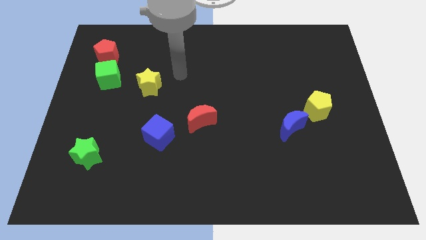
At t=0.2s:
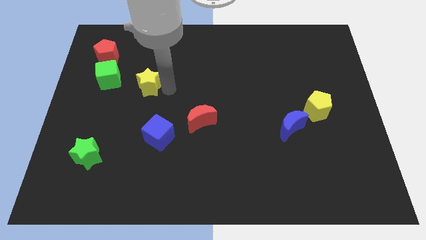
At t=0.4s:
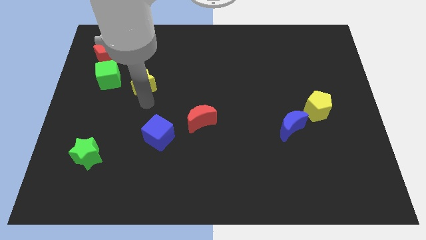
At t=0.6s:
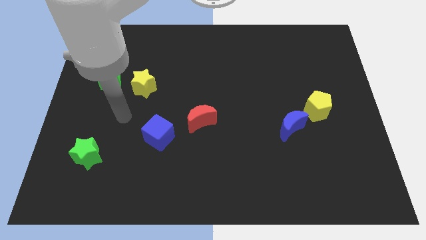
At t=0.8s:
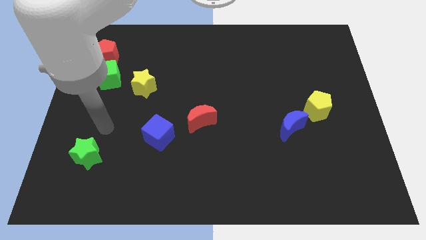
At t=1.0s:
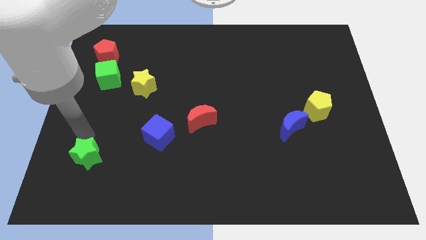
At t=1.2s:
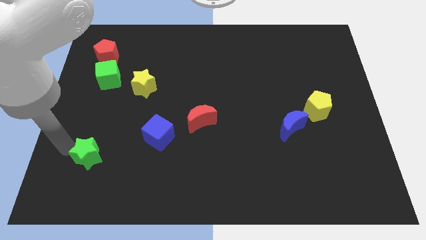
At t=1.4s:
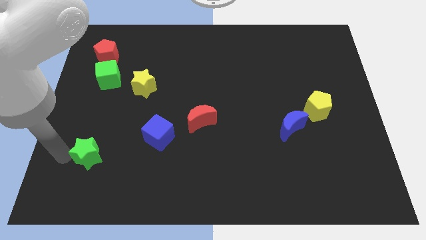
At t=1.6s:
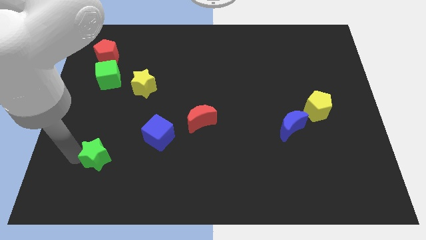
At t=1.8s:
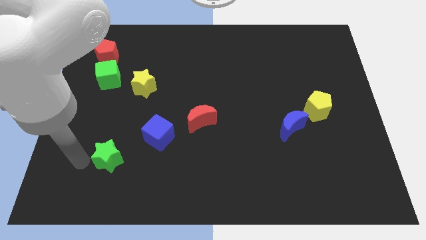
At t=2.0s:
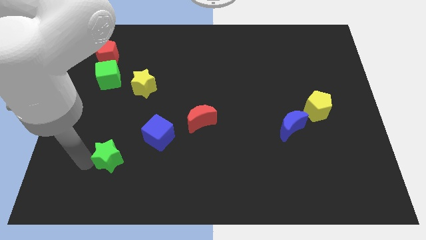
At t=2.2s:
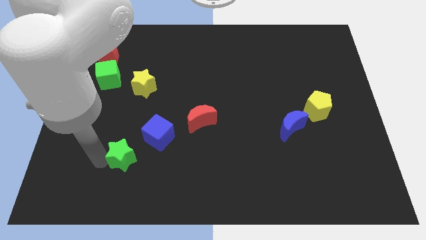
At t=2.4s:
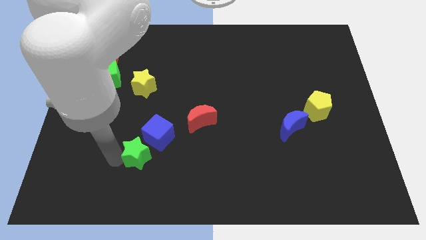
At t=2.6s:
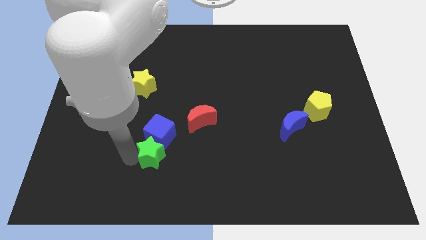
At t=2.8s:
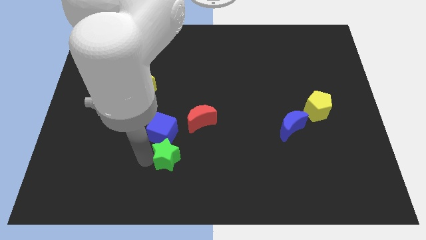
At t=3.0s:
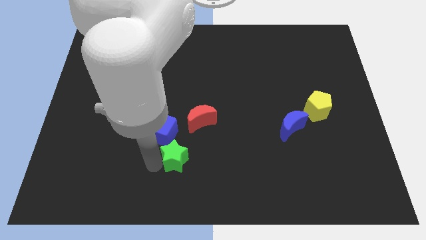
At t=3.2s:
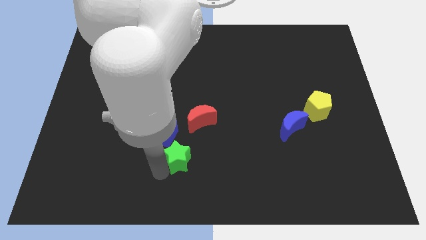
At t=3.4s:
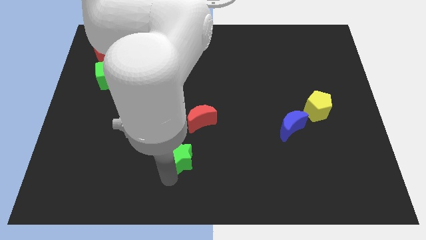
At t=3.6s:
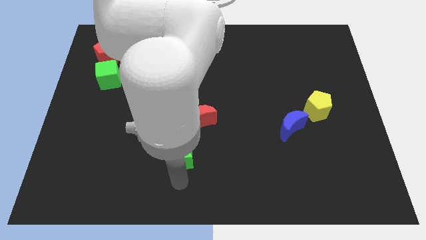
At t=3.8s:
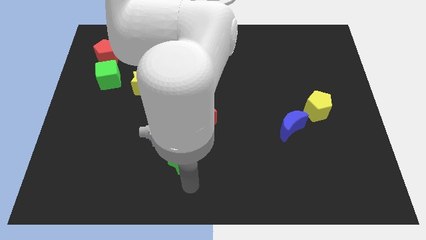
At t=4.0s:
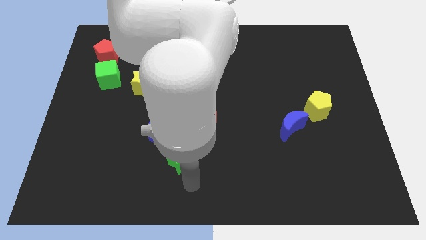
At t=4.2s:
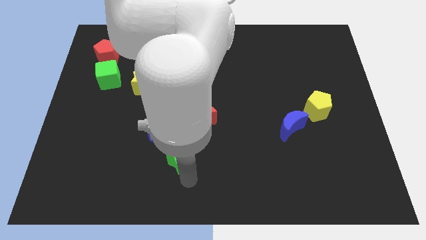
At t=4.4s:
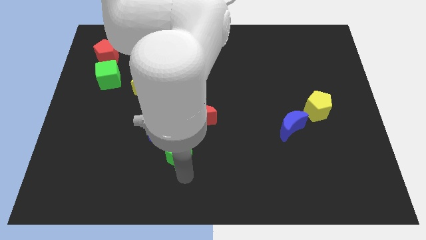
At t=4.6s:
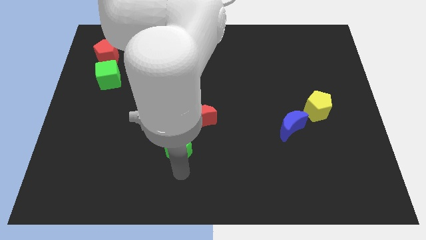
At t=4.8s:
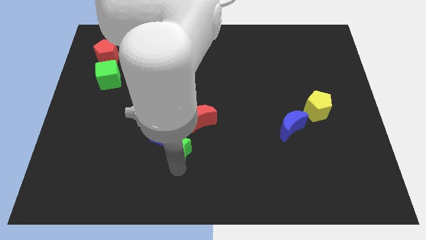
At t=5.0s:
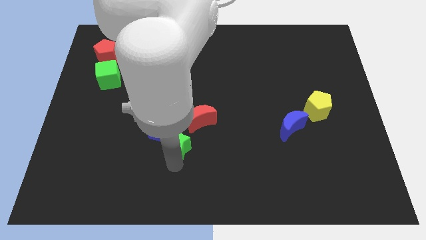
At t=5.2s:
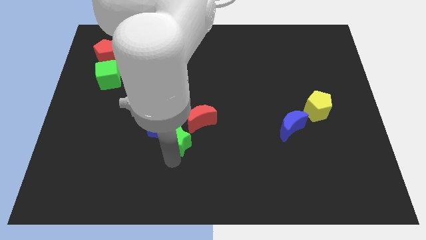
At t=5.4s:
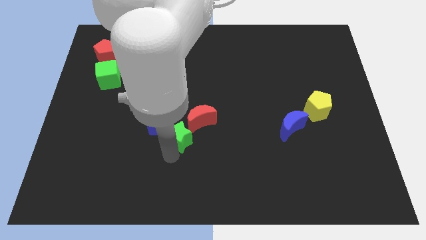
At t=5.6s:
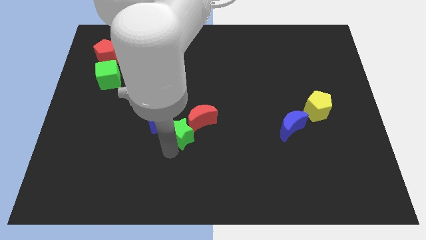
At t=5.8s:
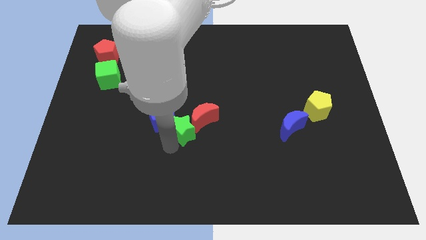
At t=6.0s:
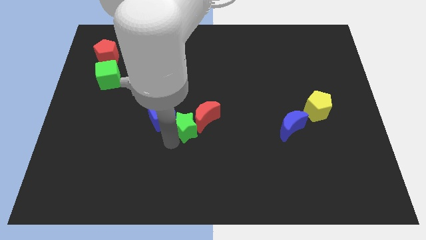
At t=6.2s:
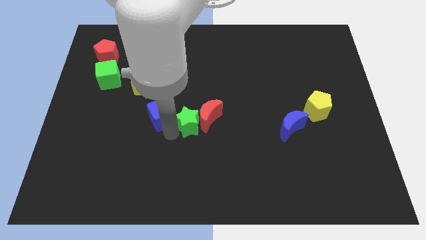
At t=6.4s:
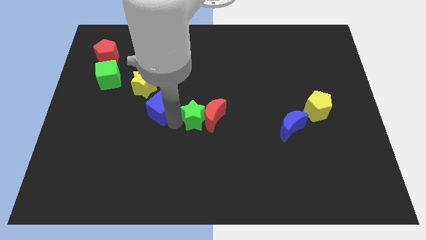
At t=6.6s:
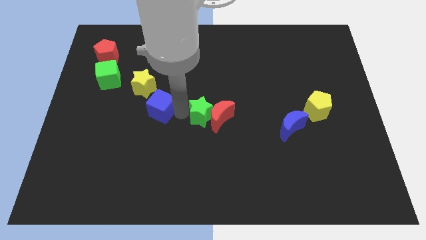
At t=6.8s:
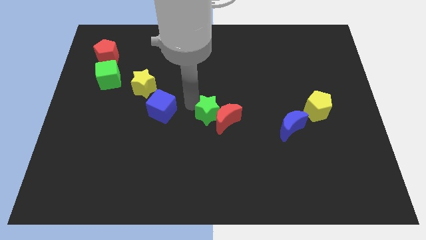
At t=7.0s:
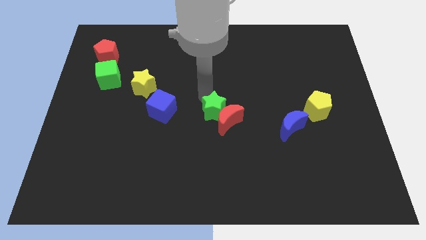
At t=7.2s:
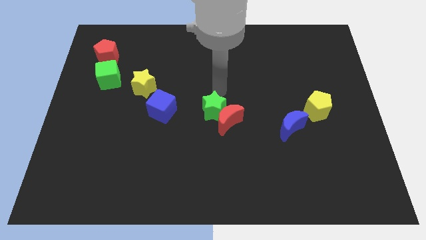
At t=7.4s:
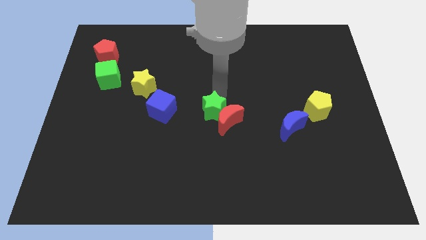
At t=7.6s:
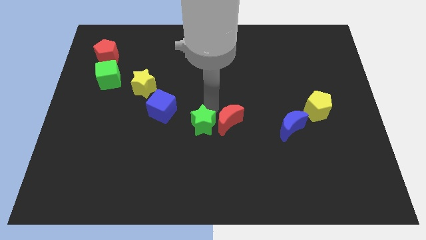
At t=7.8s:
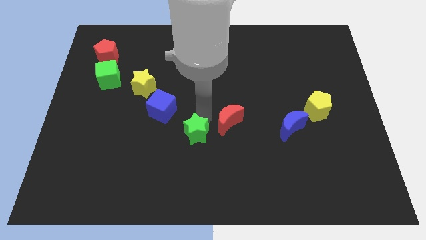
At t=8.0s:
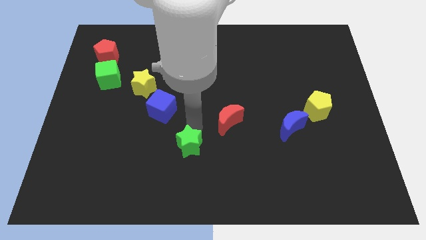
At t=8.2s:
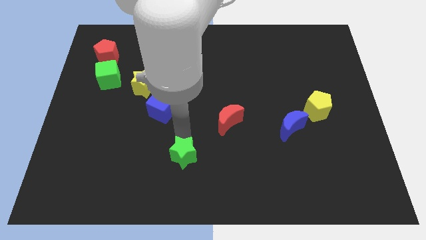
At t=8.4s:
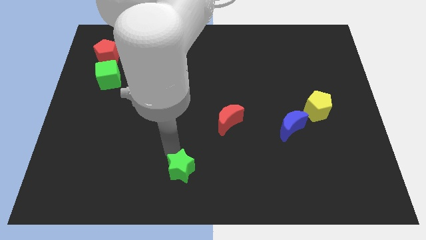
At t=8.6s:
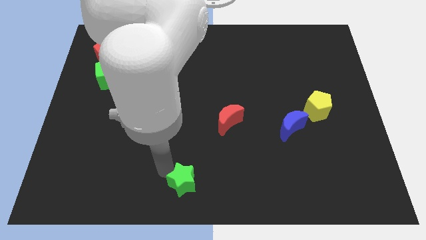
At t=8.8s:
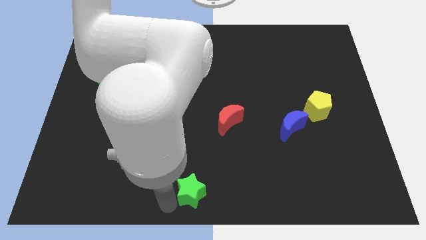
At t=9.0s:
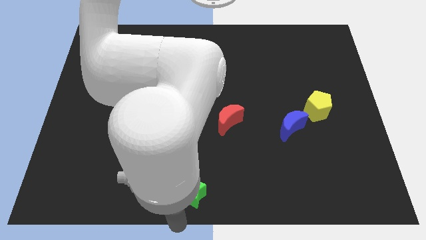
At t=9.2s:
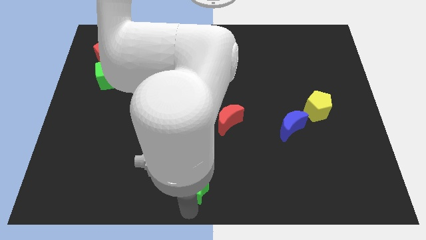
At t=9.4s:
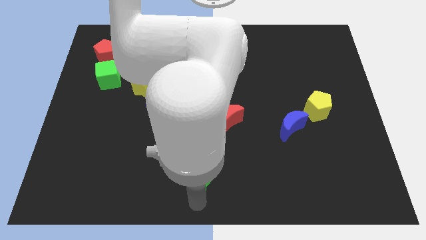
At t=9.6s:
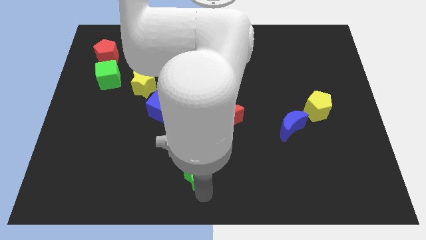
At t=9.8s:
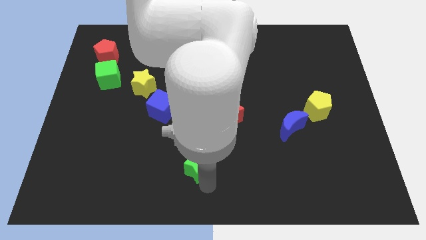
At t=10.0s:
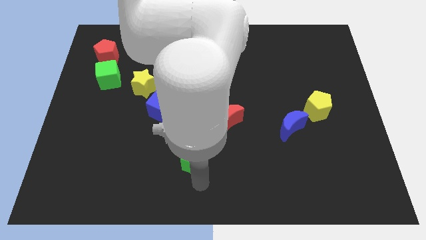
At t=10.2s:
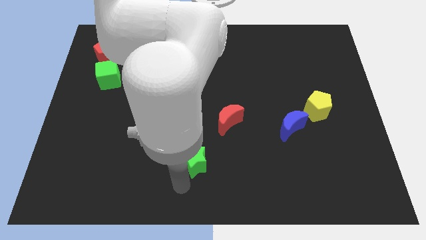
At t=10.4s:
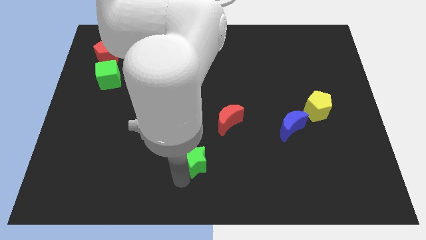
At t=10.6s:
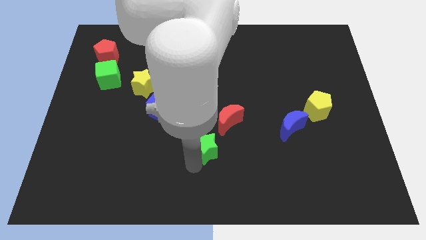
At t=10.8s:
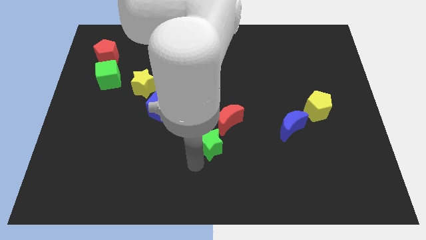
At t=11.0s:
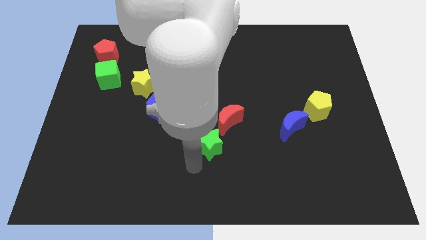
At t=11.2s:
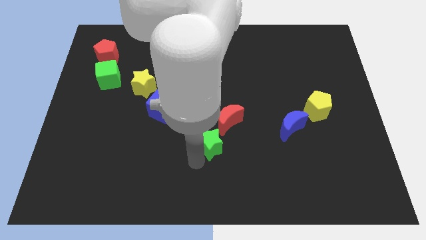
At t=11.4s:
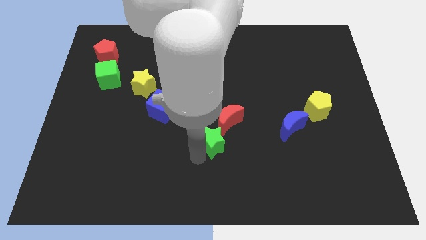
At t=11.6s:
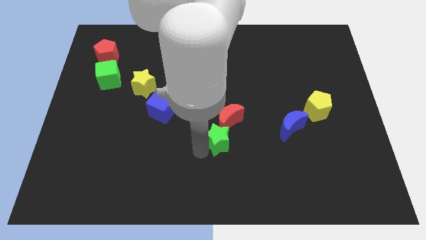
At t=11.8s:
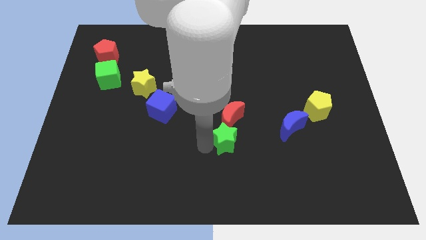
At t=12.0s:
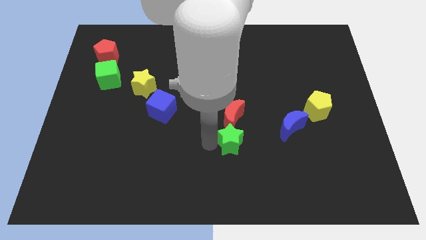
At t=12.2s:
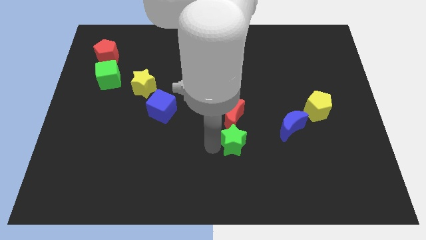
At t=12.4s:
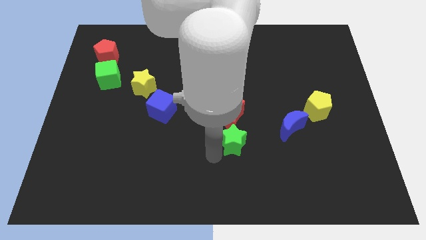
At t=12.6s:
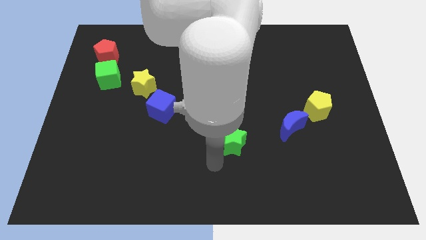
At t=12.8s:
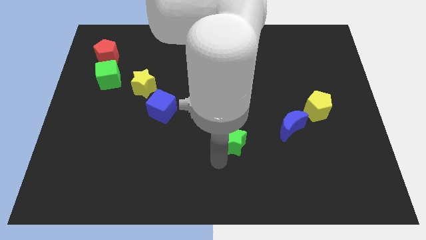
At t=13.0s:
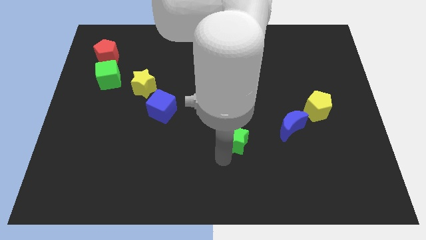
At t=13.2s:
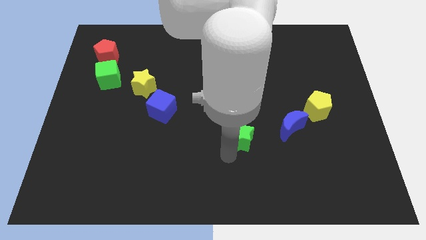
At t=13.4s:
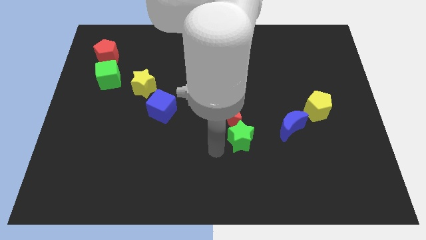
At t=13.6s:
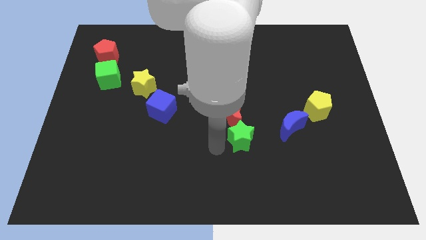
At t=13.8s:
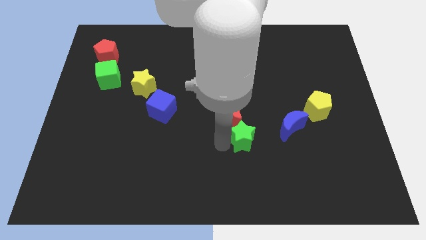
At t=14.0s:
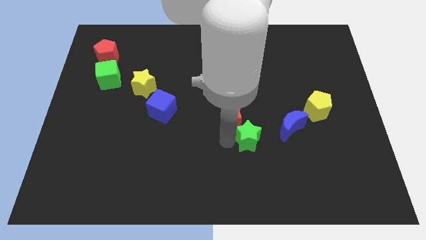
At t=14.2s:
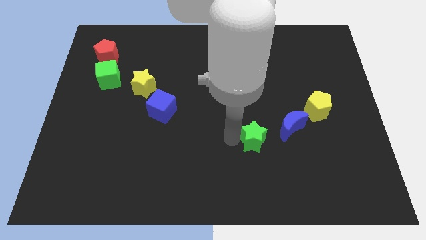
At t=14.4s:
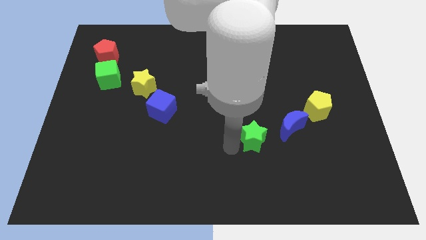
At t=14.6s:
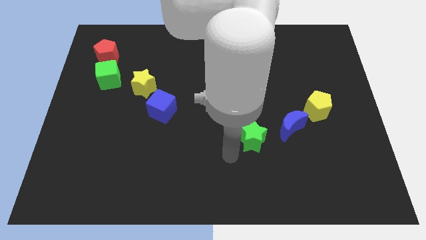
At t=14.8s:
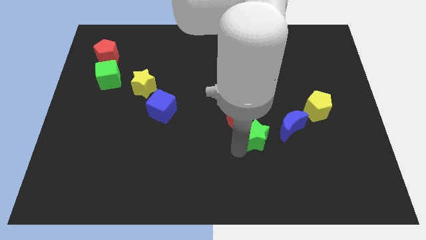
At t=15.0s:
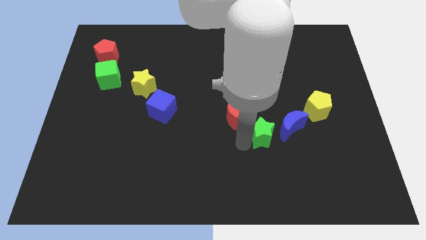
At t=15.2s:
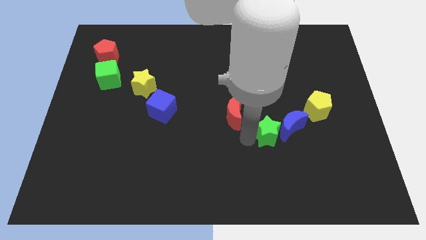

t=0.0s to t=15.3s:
put the green star to the blue moon

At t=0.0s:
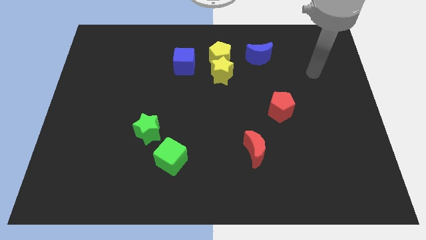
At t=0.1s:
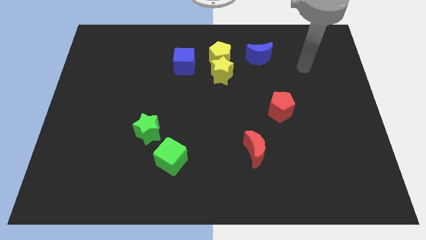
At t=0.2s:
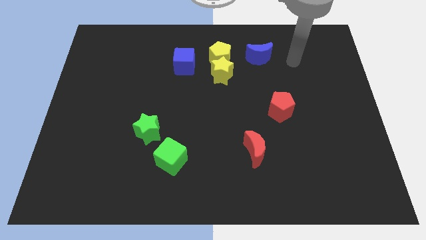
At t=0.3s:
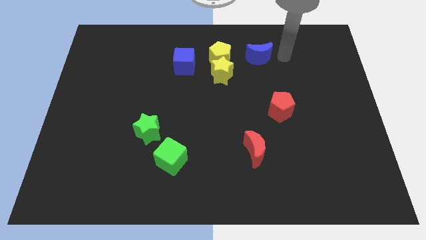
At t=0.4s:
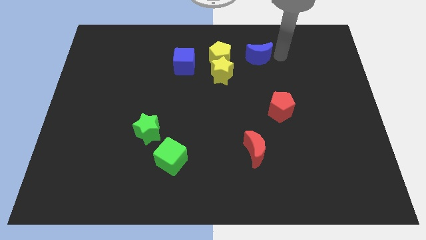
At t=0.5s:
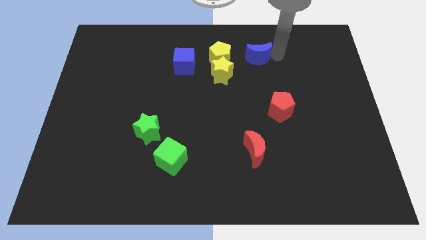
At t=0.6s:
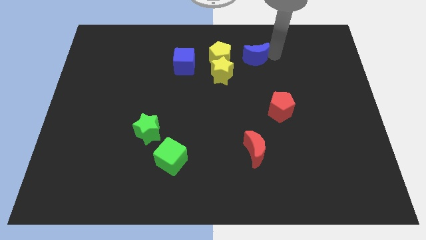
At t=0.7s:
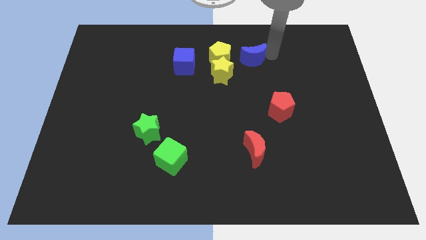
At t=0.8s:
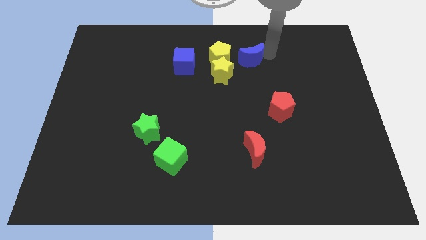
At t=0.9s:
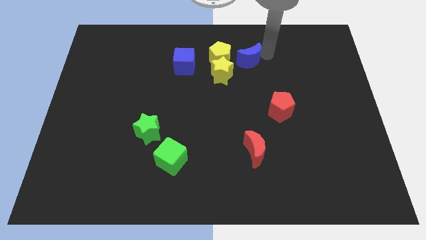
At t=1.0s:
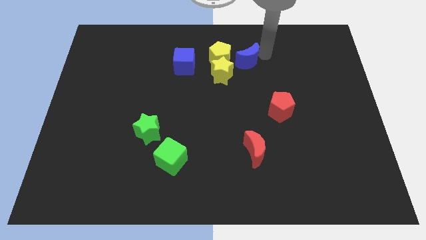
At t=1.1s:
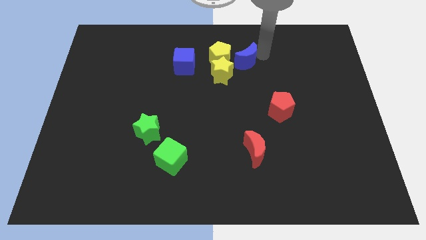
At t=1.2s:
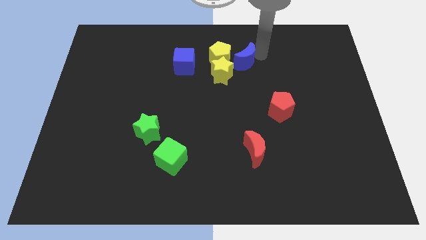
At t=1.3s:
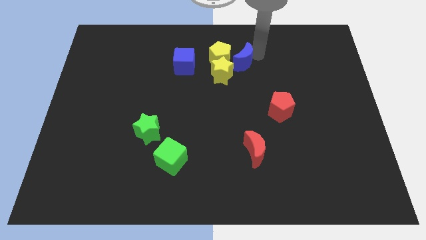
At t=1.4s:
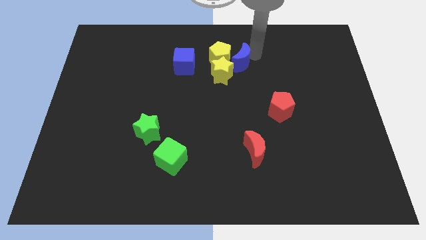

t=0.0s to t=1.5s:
slide the blue moon to the yellow pentagon
